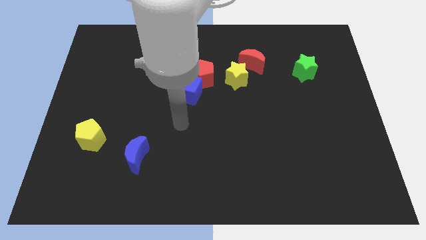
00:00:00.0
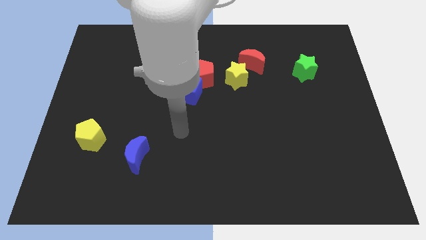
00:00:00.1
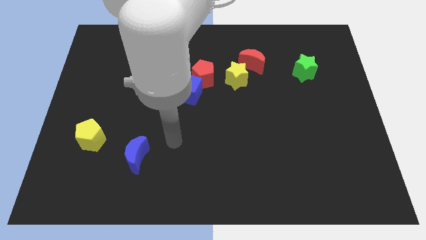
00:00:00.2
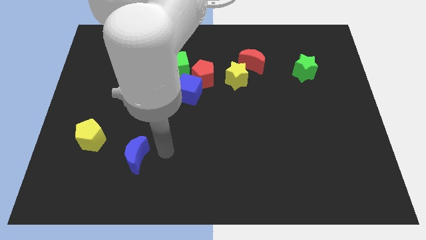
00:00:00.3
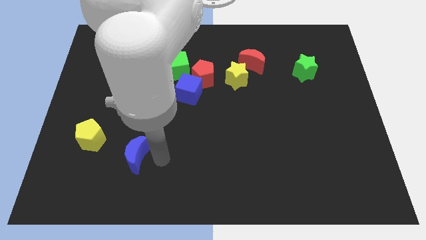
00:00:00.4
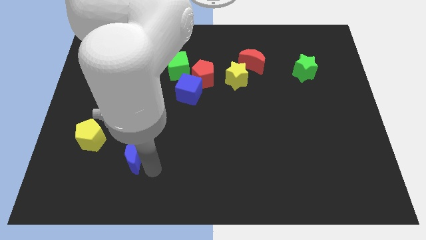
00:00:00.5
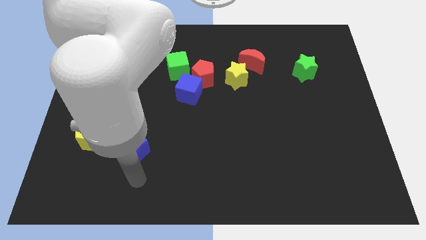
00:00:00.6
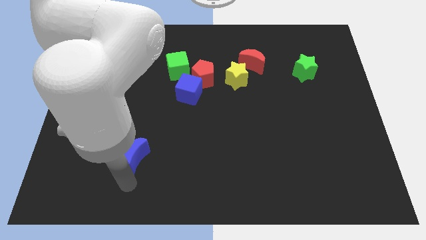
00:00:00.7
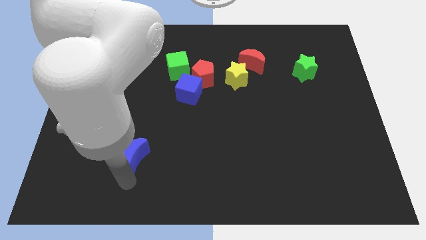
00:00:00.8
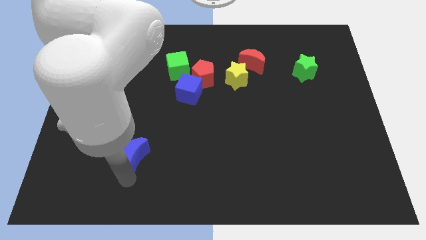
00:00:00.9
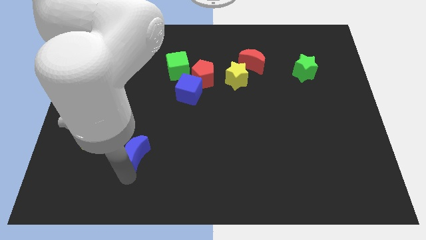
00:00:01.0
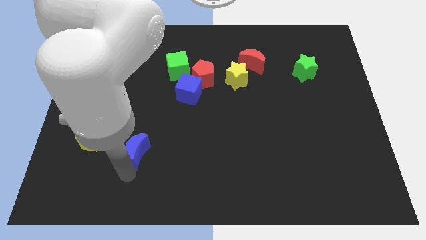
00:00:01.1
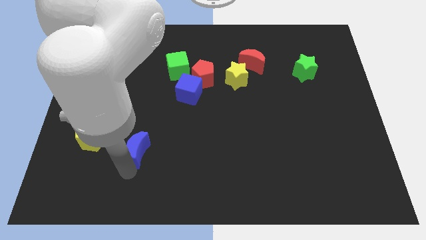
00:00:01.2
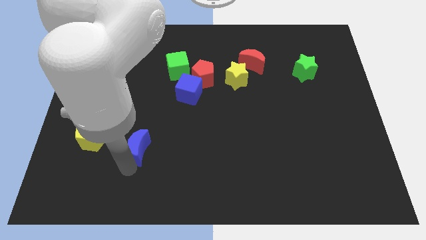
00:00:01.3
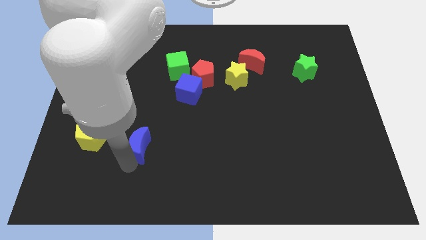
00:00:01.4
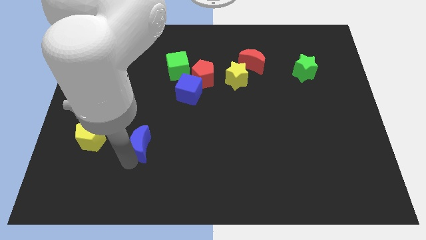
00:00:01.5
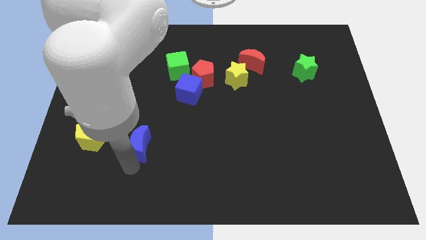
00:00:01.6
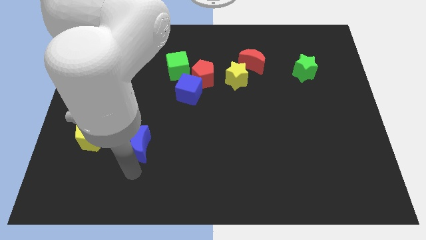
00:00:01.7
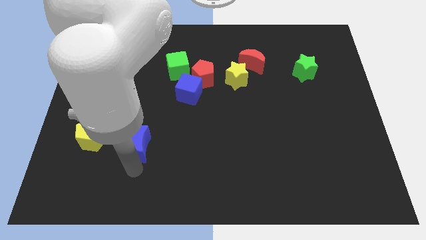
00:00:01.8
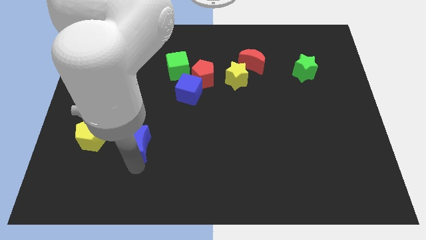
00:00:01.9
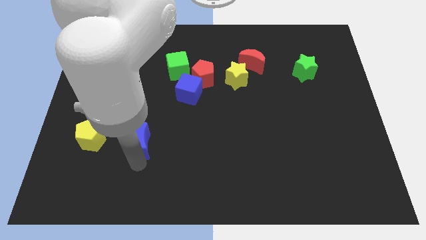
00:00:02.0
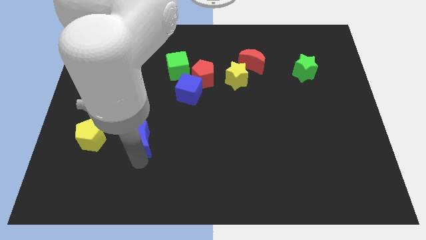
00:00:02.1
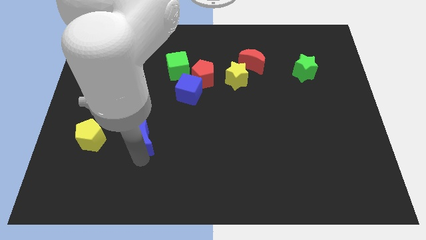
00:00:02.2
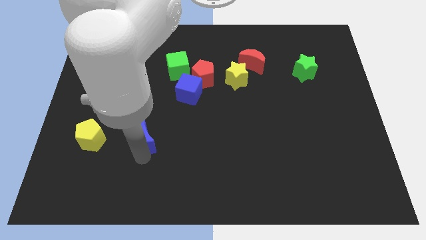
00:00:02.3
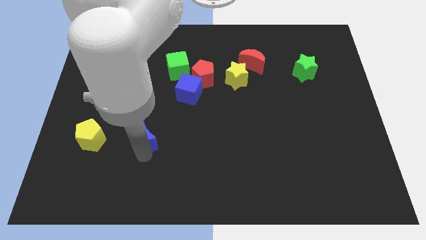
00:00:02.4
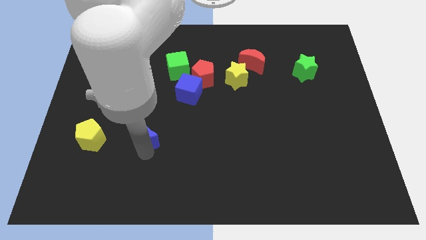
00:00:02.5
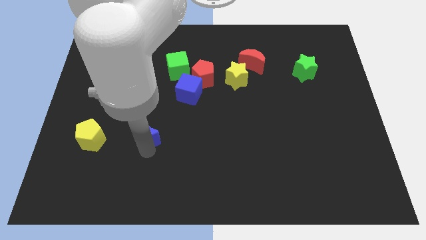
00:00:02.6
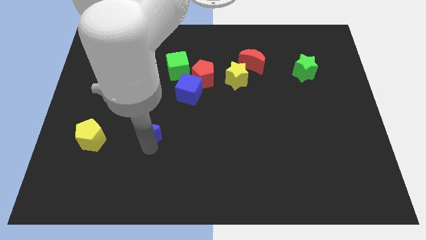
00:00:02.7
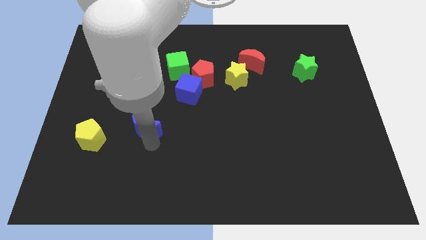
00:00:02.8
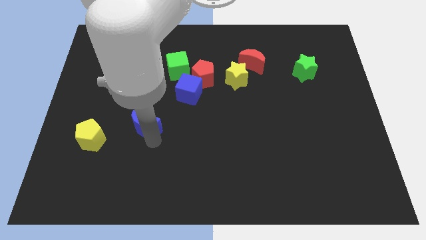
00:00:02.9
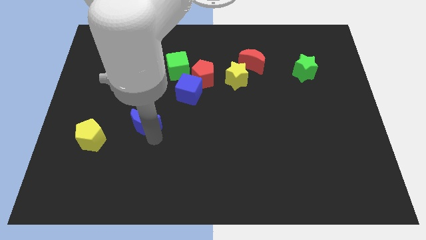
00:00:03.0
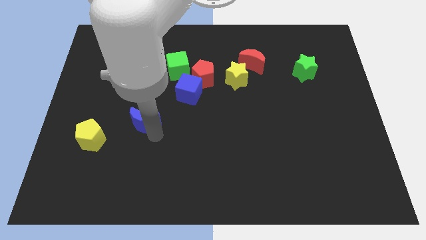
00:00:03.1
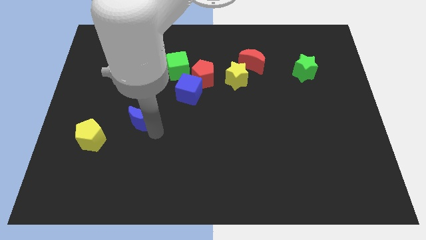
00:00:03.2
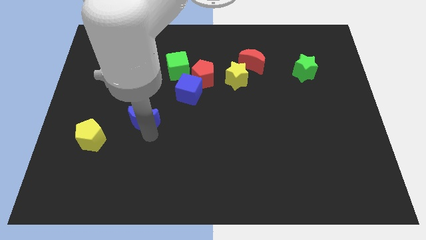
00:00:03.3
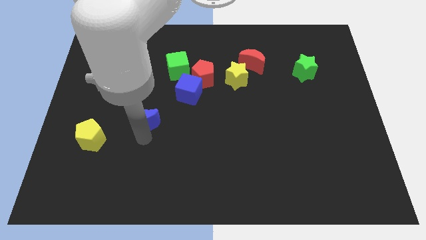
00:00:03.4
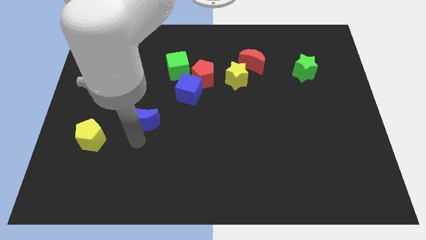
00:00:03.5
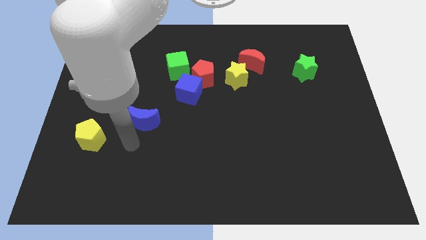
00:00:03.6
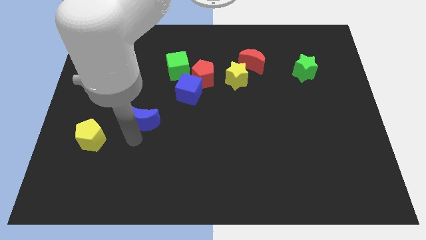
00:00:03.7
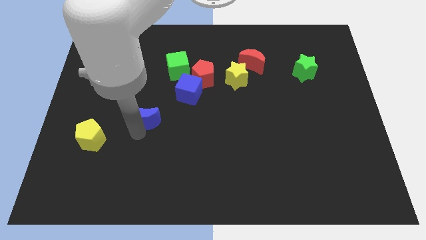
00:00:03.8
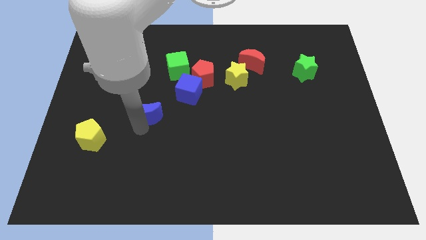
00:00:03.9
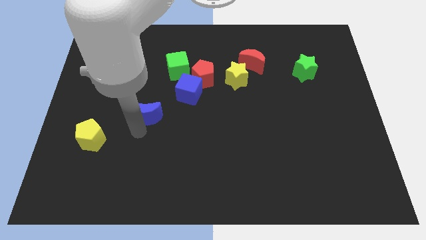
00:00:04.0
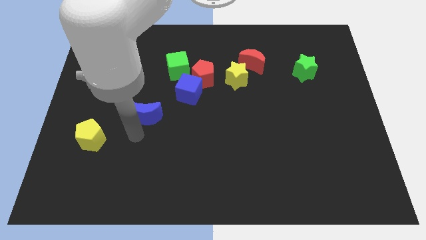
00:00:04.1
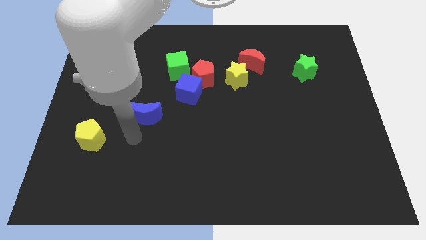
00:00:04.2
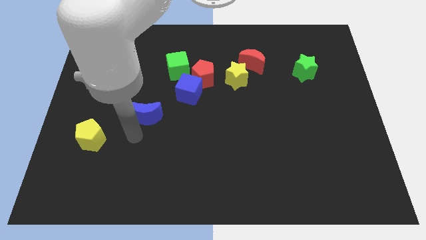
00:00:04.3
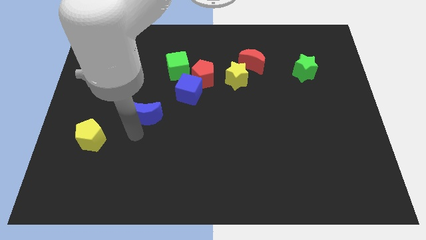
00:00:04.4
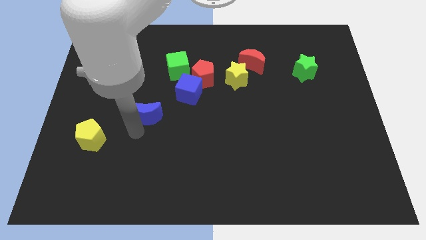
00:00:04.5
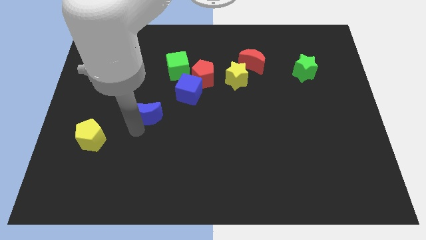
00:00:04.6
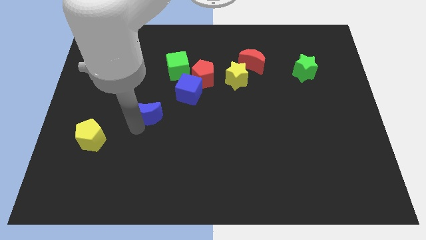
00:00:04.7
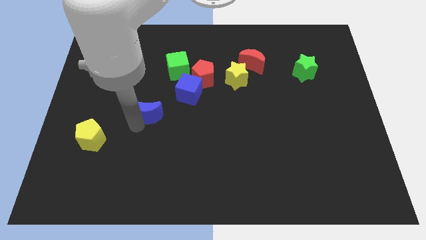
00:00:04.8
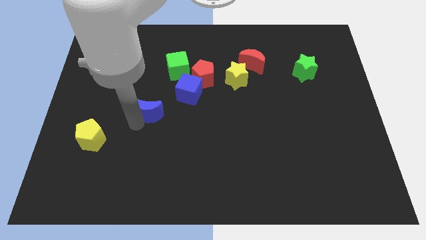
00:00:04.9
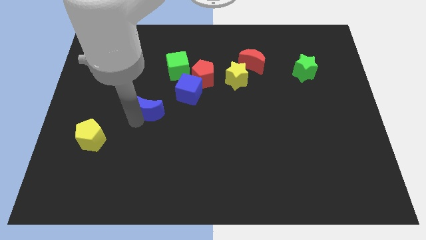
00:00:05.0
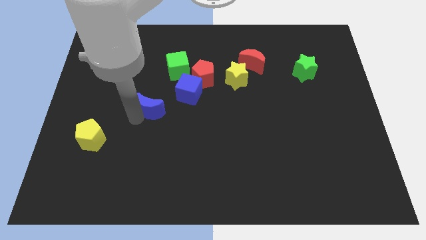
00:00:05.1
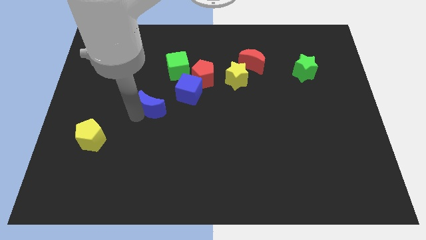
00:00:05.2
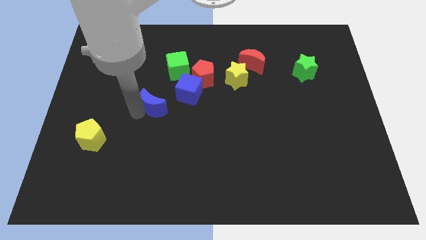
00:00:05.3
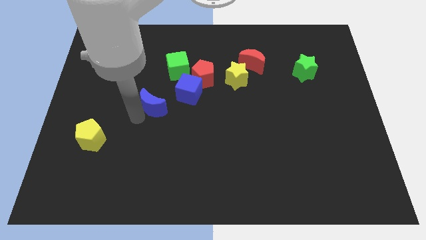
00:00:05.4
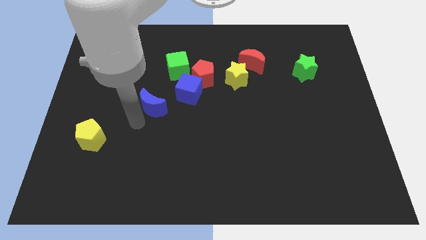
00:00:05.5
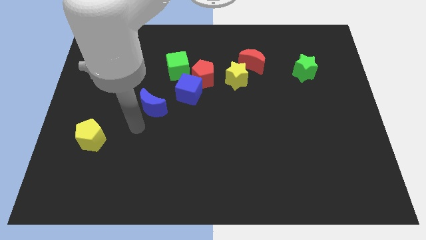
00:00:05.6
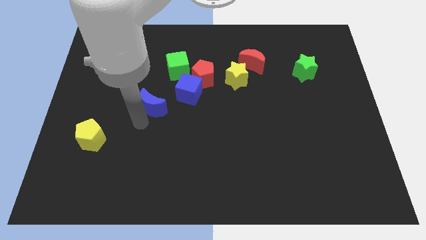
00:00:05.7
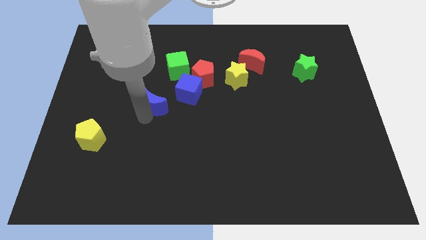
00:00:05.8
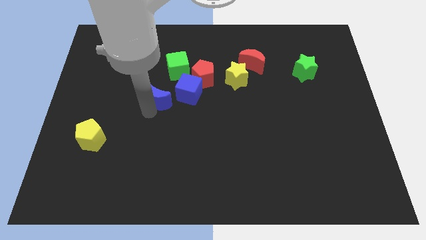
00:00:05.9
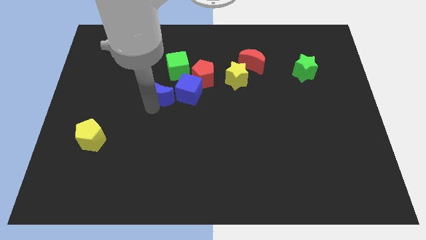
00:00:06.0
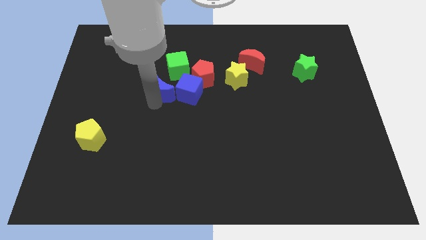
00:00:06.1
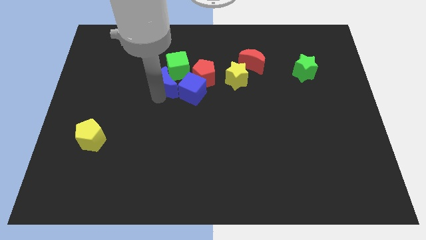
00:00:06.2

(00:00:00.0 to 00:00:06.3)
slide the blue moon next to the green cube
